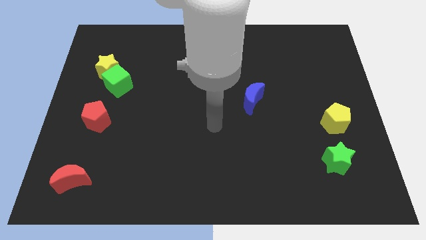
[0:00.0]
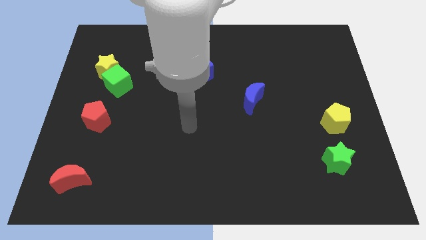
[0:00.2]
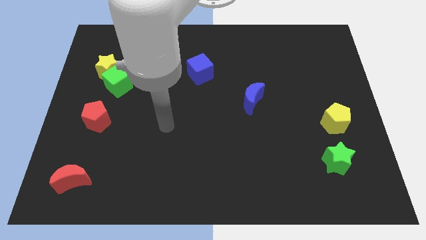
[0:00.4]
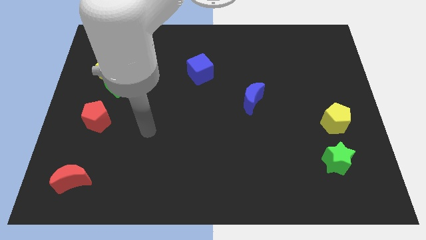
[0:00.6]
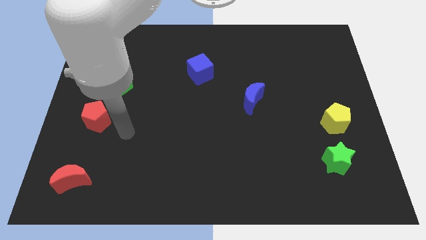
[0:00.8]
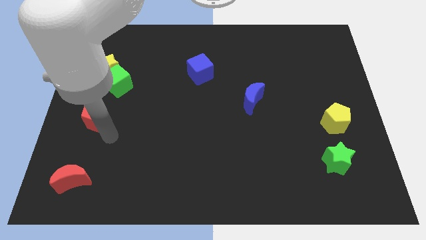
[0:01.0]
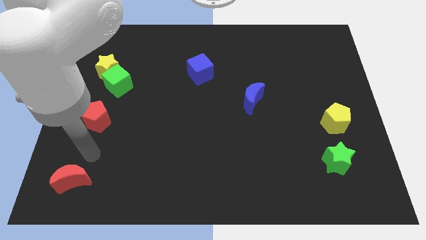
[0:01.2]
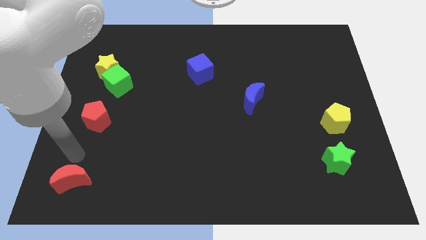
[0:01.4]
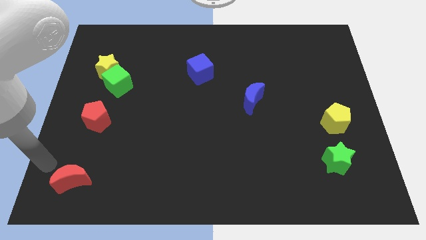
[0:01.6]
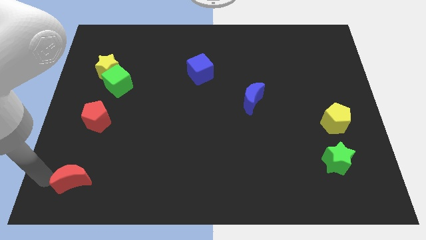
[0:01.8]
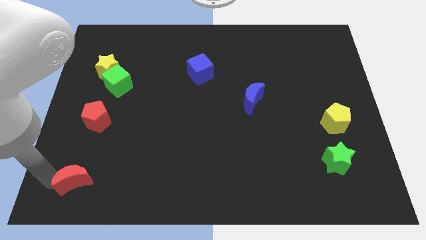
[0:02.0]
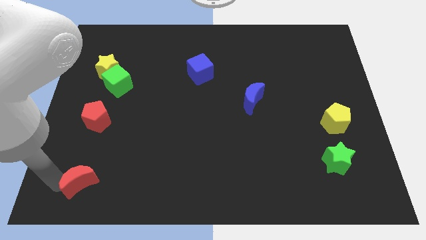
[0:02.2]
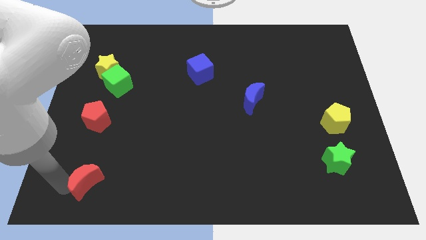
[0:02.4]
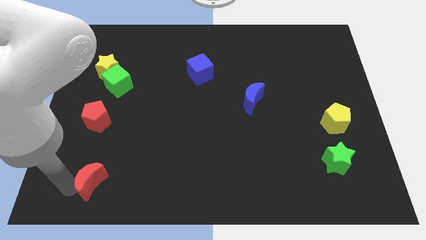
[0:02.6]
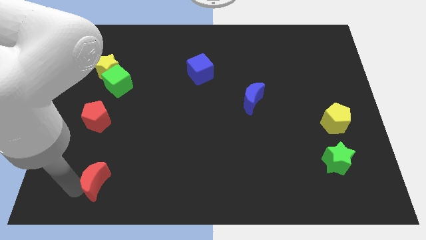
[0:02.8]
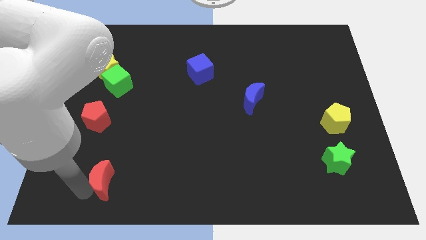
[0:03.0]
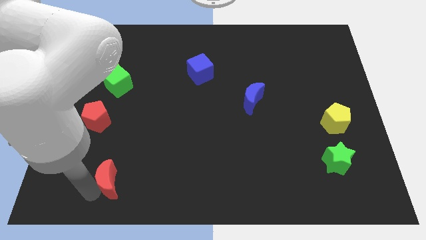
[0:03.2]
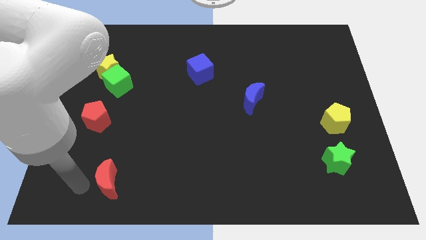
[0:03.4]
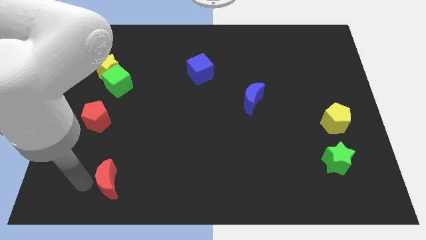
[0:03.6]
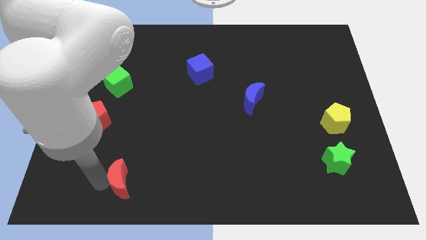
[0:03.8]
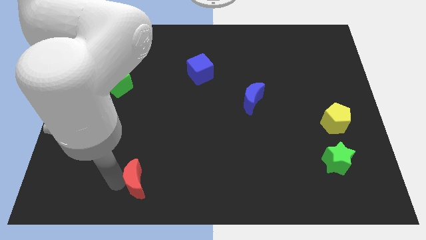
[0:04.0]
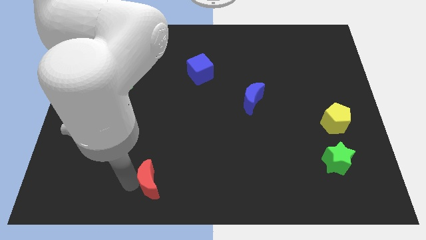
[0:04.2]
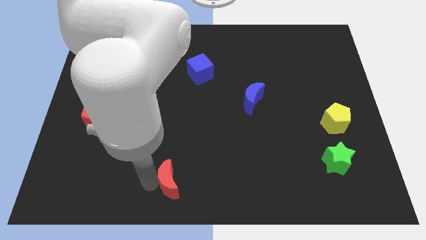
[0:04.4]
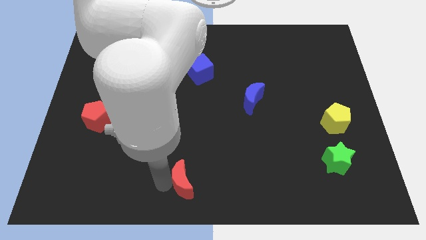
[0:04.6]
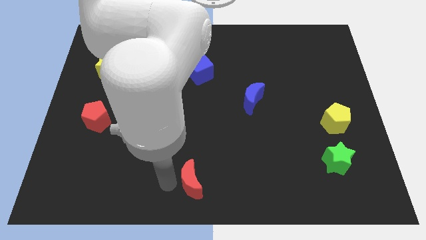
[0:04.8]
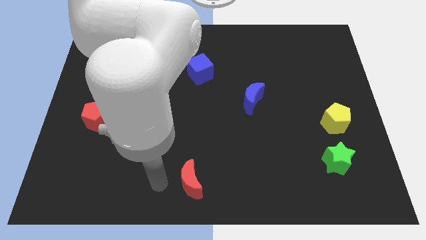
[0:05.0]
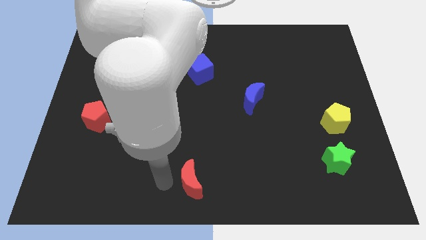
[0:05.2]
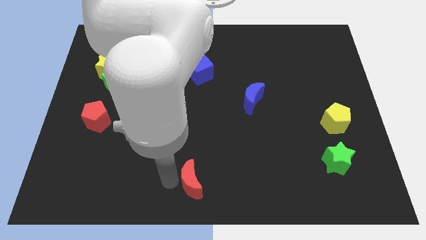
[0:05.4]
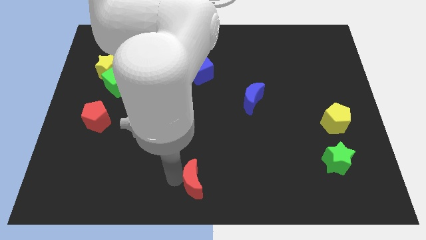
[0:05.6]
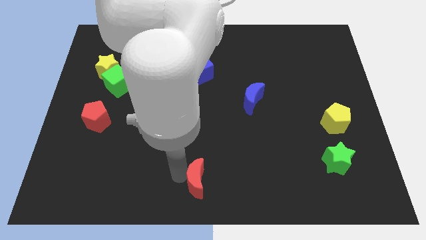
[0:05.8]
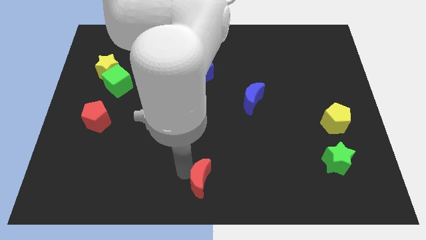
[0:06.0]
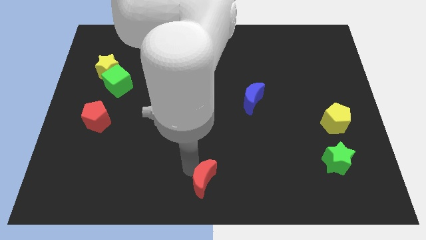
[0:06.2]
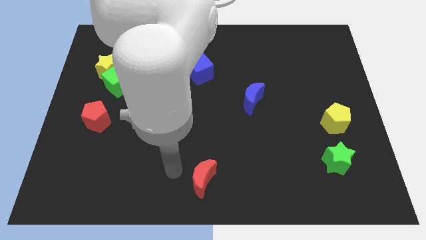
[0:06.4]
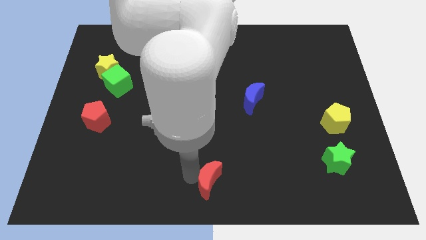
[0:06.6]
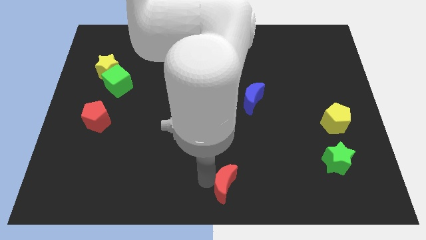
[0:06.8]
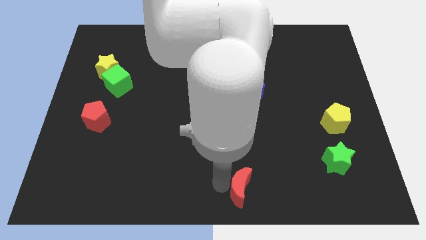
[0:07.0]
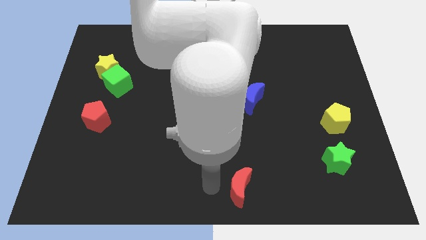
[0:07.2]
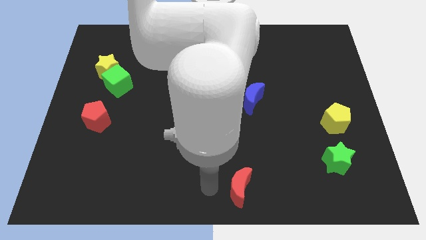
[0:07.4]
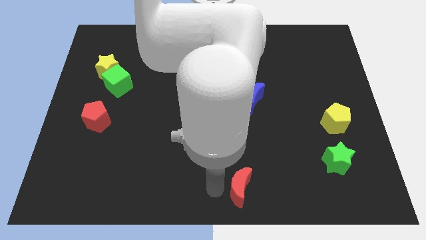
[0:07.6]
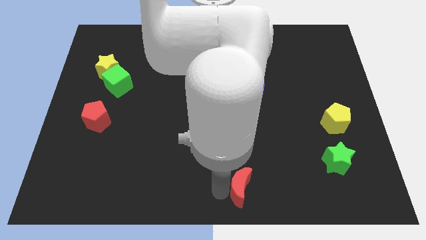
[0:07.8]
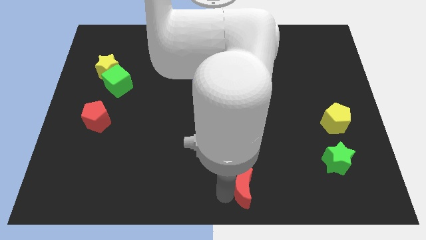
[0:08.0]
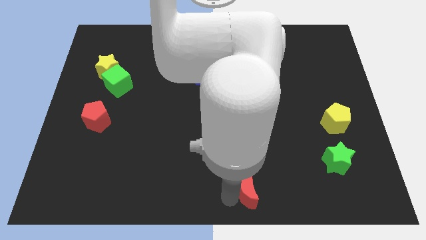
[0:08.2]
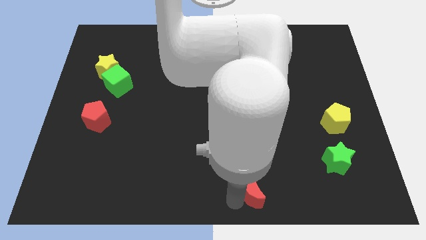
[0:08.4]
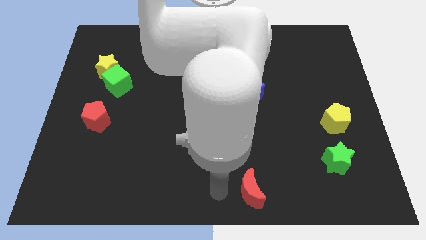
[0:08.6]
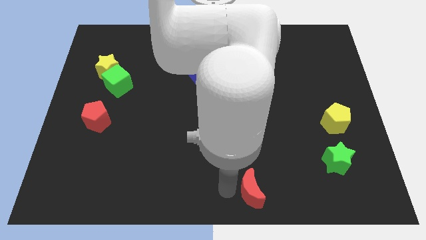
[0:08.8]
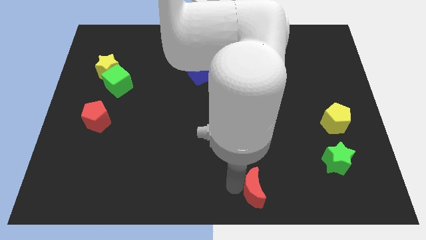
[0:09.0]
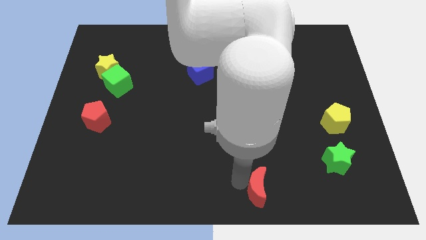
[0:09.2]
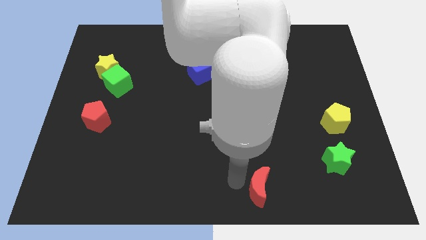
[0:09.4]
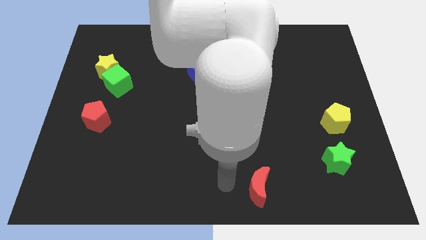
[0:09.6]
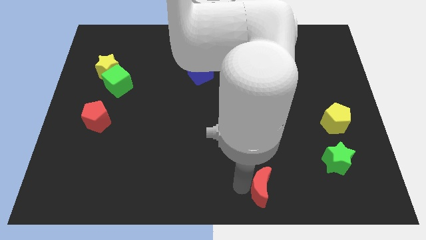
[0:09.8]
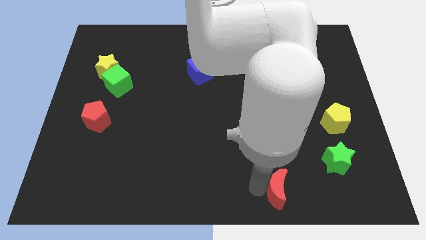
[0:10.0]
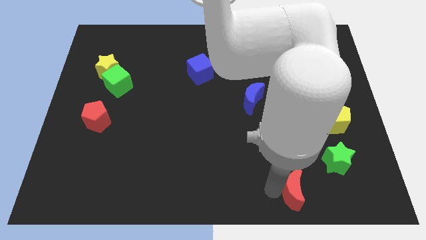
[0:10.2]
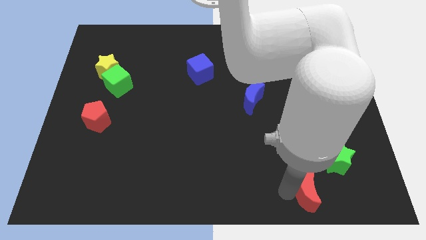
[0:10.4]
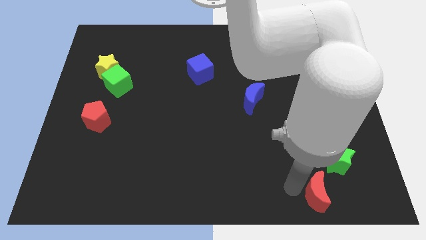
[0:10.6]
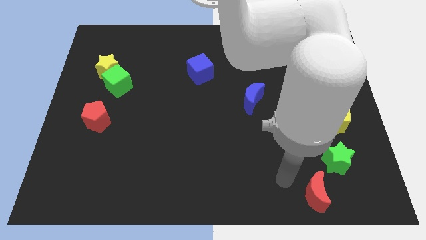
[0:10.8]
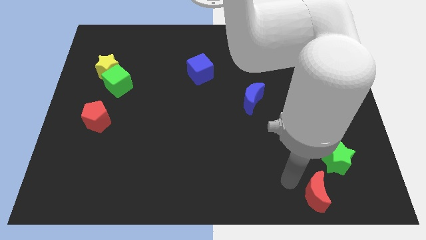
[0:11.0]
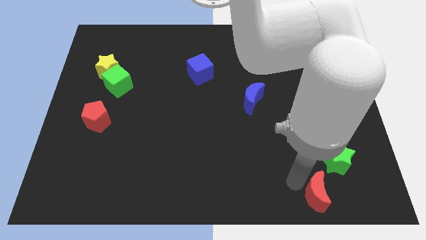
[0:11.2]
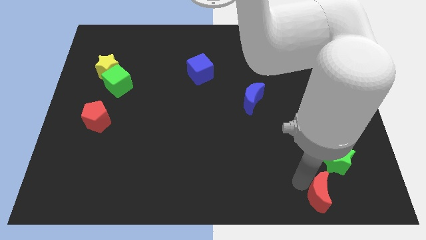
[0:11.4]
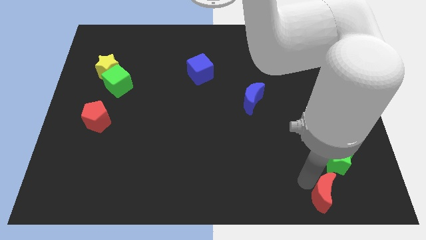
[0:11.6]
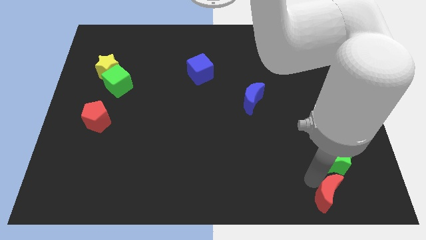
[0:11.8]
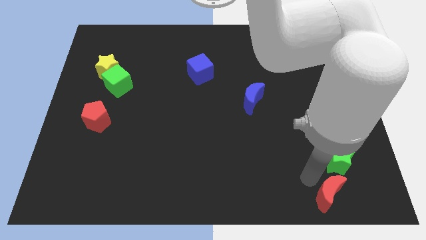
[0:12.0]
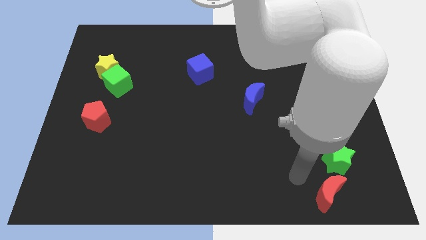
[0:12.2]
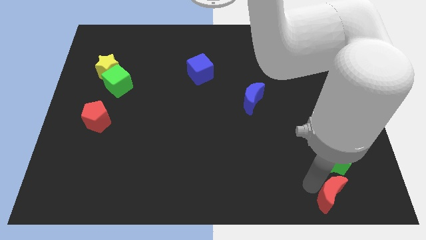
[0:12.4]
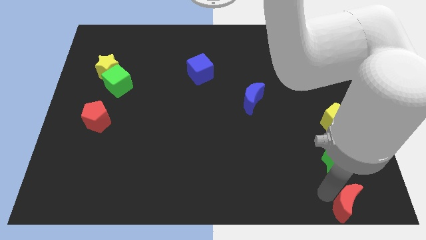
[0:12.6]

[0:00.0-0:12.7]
move the red moon to the bottom right corner
